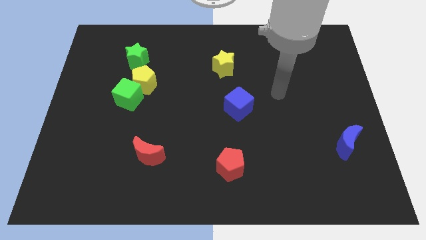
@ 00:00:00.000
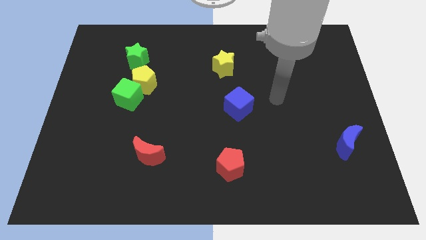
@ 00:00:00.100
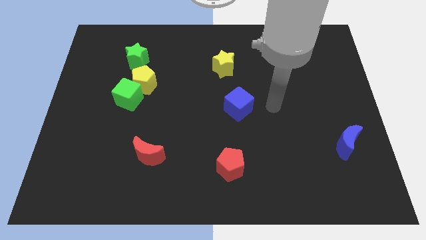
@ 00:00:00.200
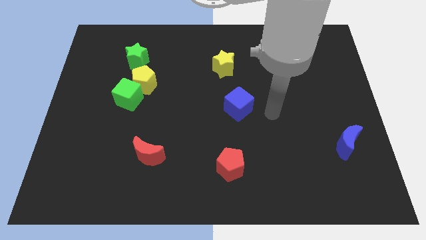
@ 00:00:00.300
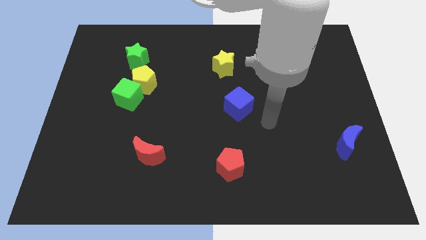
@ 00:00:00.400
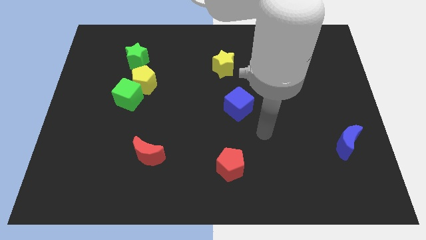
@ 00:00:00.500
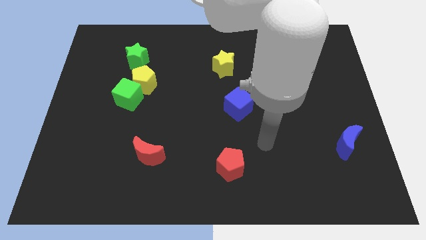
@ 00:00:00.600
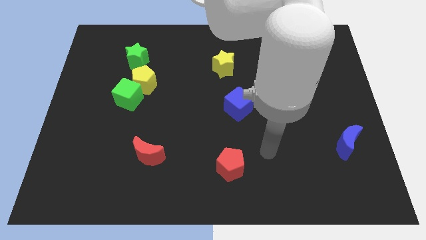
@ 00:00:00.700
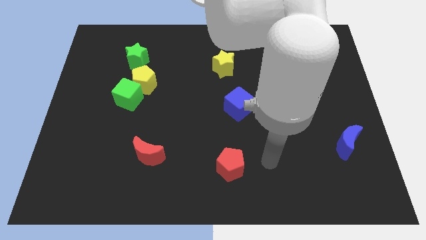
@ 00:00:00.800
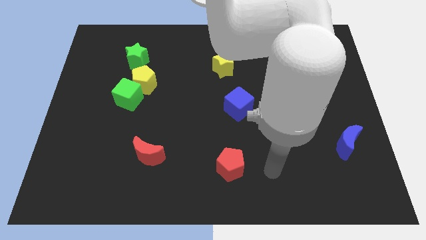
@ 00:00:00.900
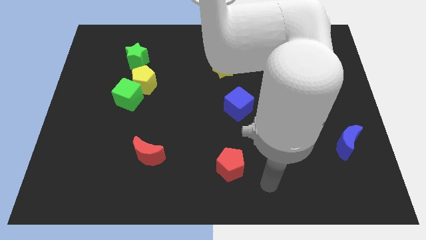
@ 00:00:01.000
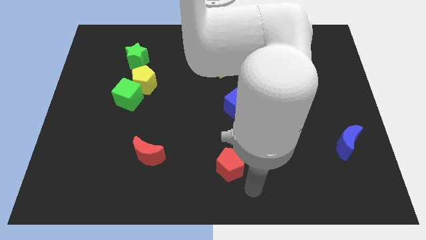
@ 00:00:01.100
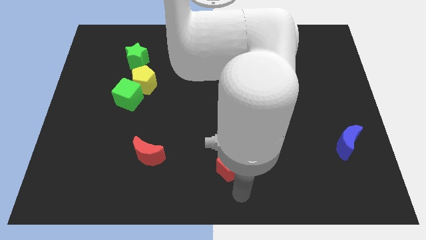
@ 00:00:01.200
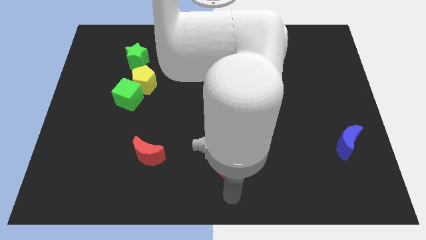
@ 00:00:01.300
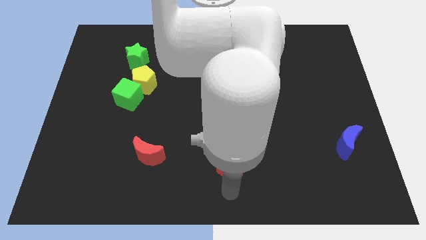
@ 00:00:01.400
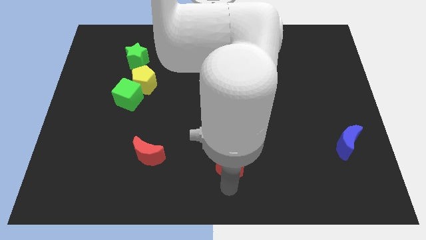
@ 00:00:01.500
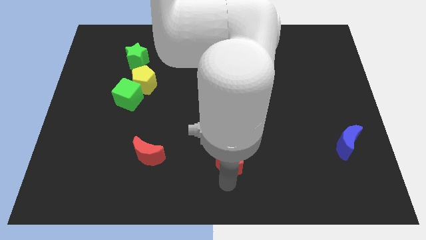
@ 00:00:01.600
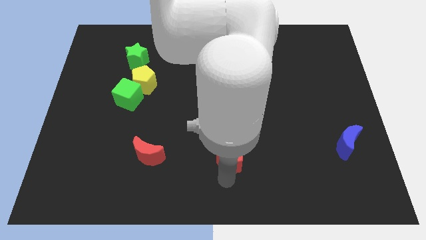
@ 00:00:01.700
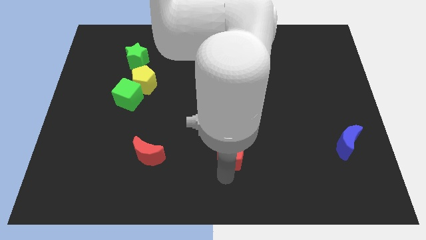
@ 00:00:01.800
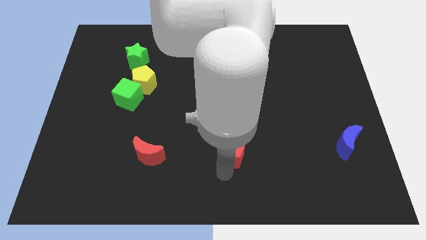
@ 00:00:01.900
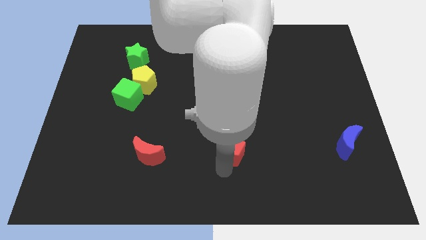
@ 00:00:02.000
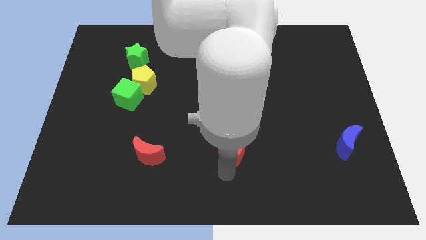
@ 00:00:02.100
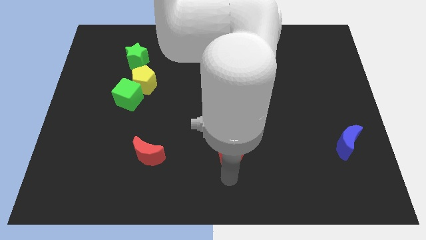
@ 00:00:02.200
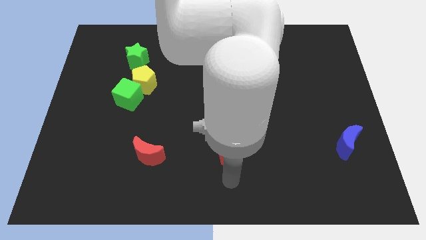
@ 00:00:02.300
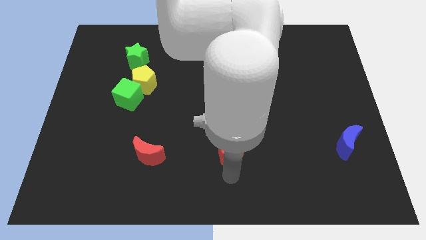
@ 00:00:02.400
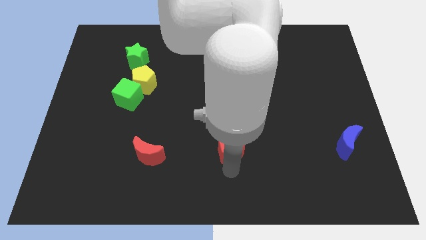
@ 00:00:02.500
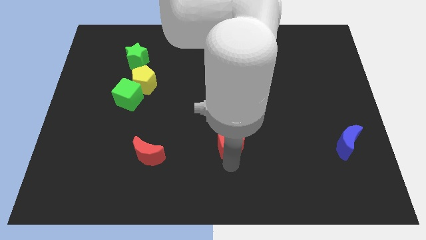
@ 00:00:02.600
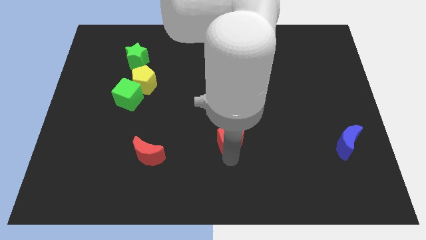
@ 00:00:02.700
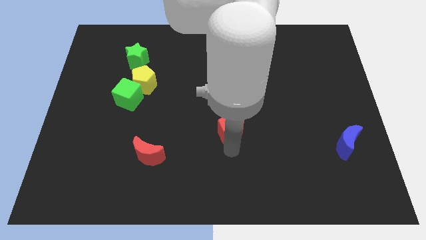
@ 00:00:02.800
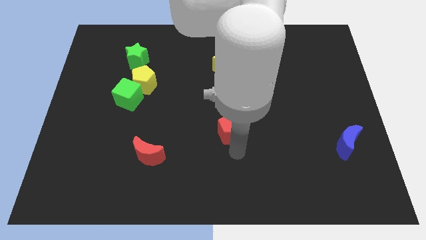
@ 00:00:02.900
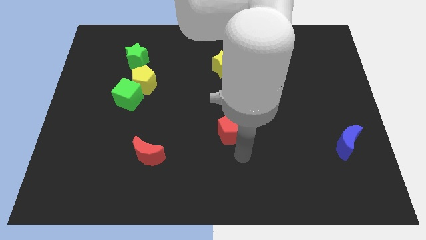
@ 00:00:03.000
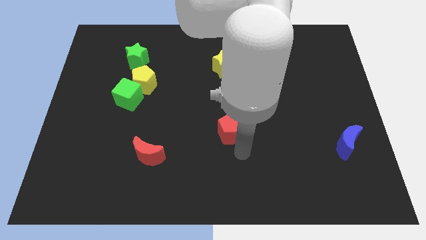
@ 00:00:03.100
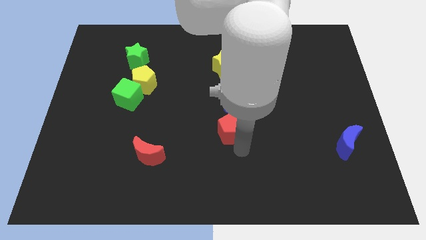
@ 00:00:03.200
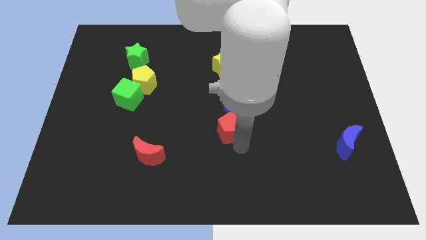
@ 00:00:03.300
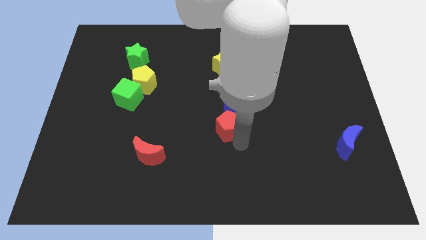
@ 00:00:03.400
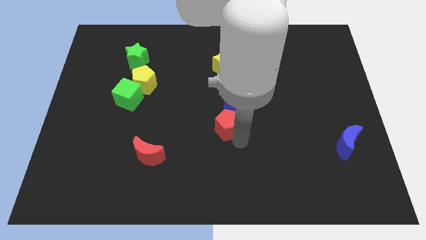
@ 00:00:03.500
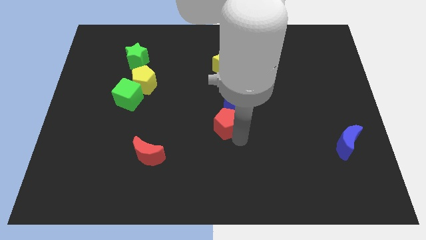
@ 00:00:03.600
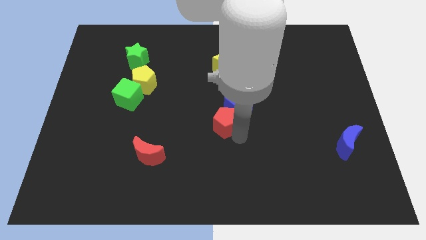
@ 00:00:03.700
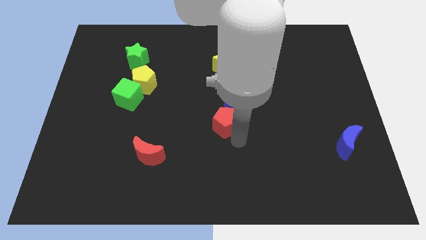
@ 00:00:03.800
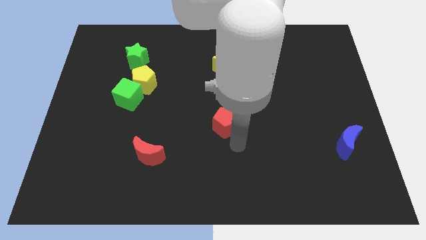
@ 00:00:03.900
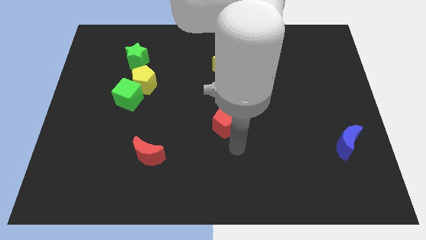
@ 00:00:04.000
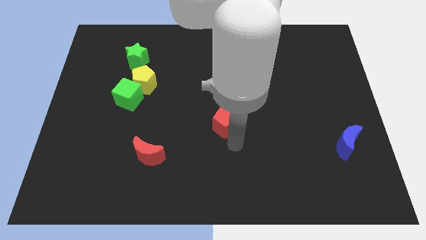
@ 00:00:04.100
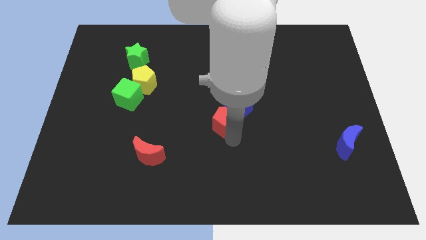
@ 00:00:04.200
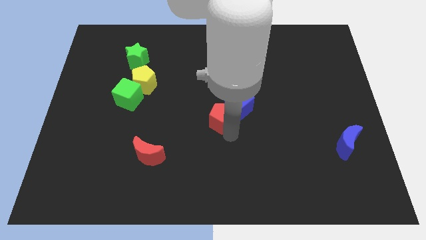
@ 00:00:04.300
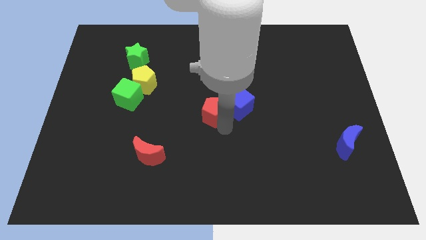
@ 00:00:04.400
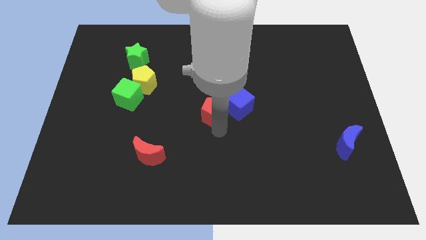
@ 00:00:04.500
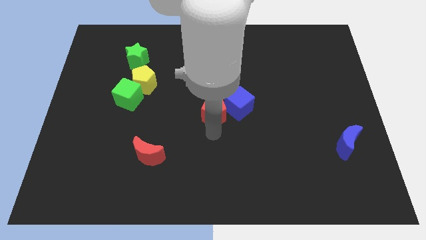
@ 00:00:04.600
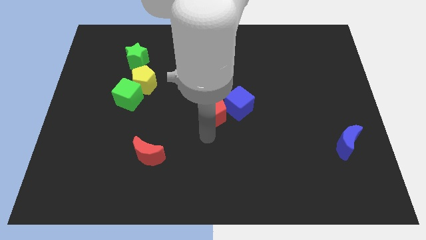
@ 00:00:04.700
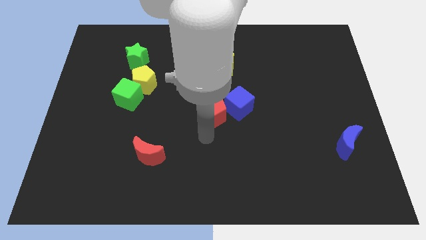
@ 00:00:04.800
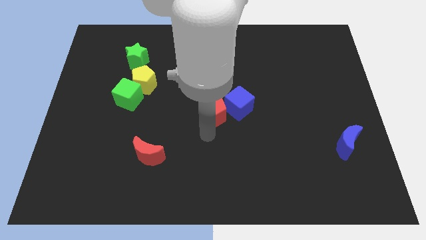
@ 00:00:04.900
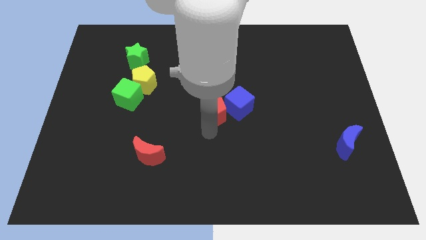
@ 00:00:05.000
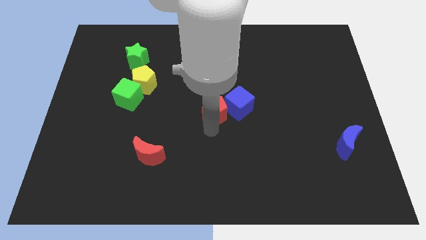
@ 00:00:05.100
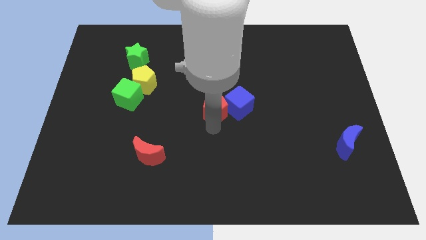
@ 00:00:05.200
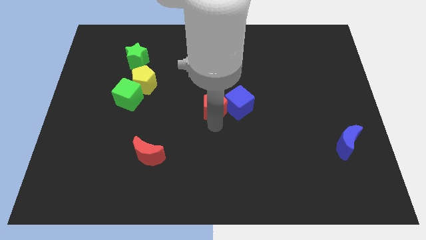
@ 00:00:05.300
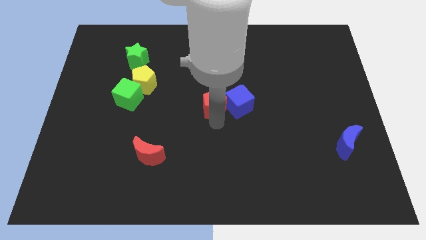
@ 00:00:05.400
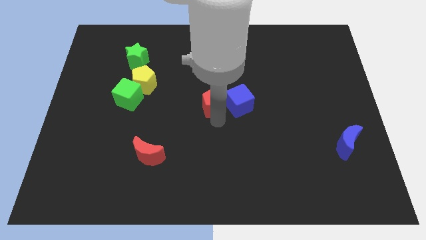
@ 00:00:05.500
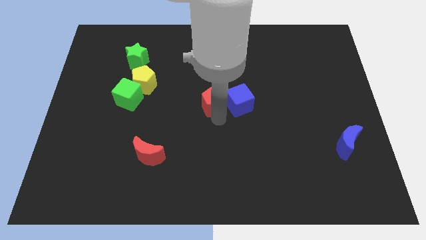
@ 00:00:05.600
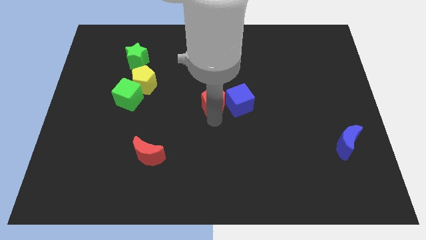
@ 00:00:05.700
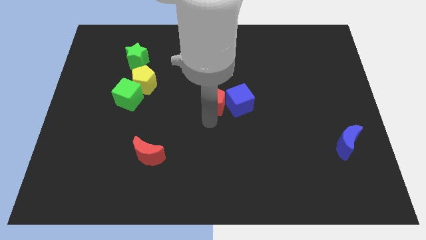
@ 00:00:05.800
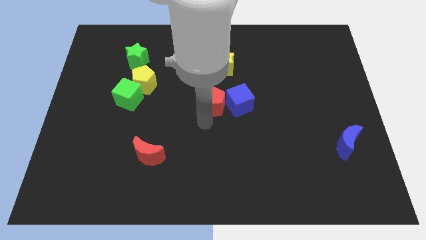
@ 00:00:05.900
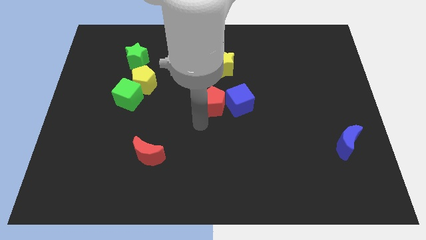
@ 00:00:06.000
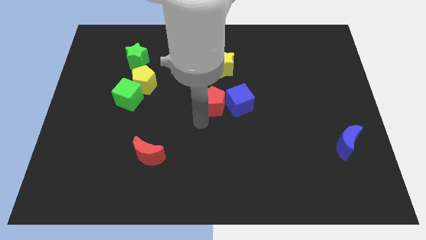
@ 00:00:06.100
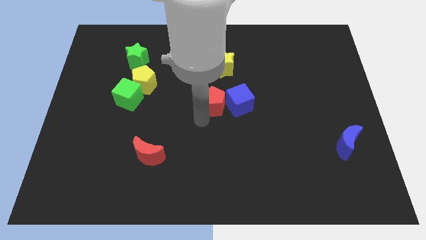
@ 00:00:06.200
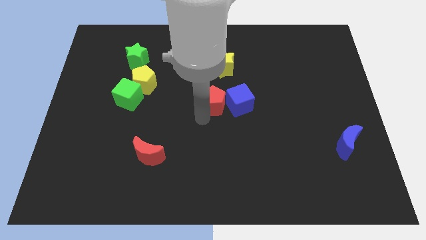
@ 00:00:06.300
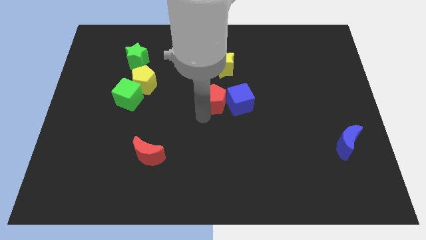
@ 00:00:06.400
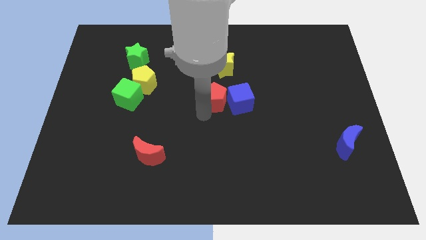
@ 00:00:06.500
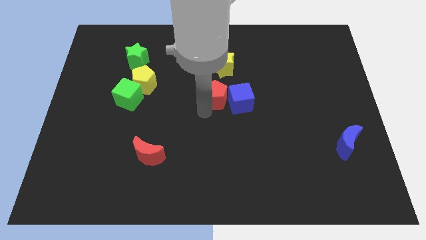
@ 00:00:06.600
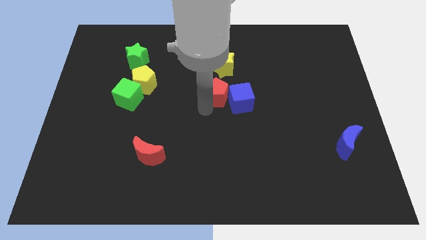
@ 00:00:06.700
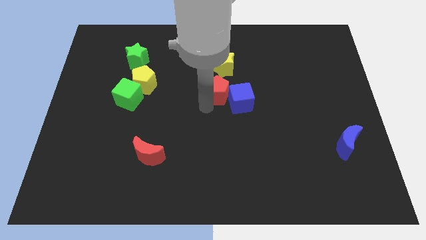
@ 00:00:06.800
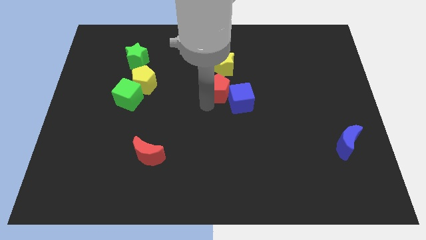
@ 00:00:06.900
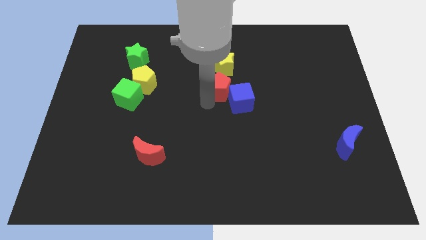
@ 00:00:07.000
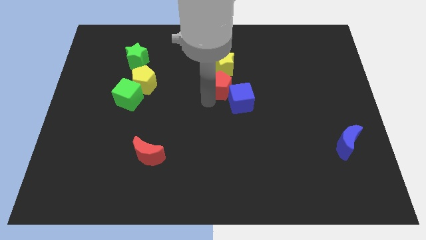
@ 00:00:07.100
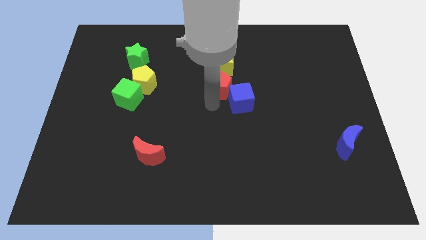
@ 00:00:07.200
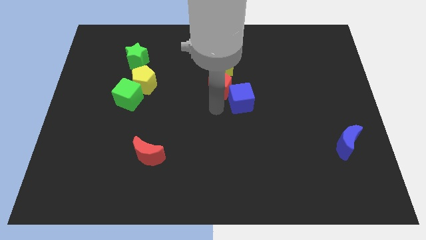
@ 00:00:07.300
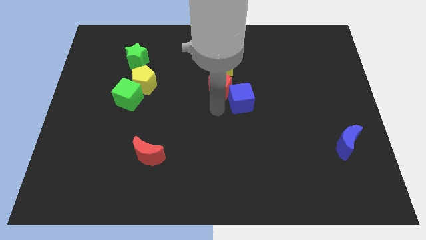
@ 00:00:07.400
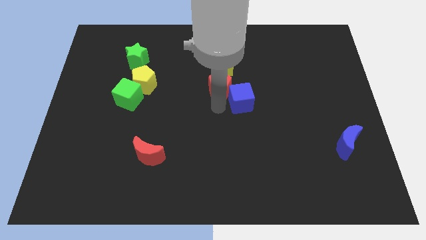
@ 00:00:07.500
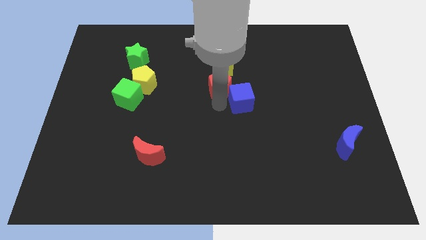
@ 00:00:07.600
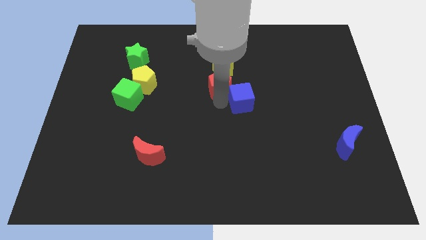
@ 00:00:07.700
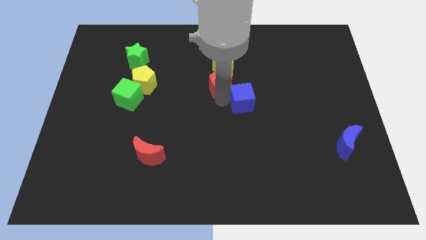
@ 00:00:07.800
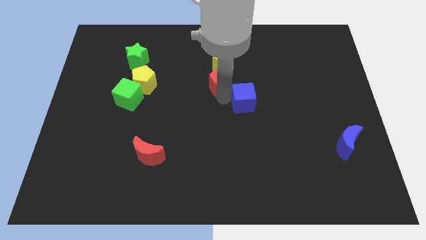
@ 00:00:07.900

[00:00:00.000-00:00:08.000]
put the red pentagon to the yellow star
